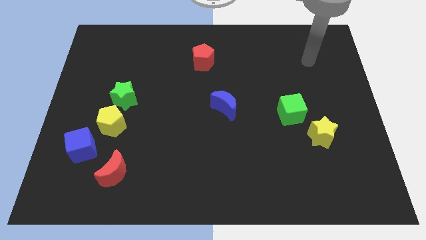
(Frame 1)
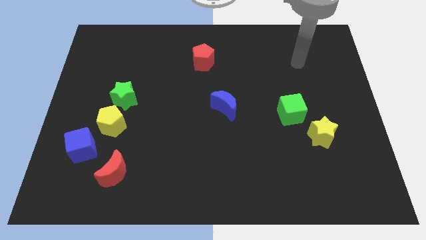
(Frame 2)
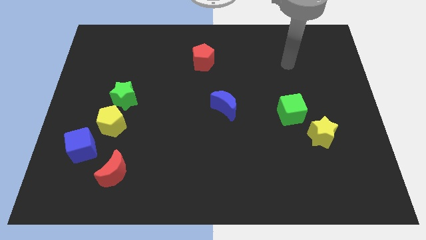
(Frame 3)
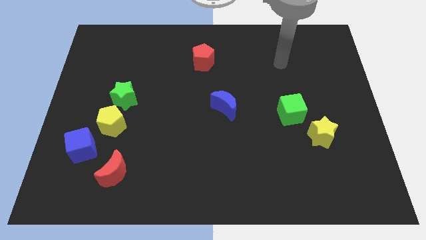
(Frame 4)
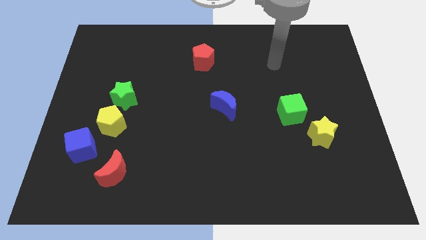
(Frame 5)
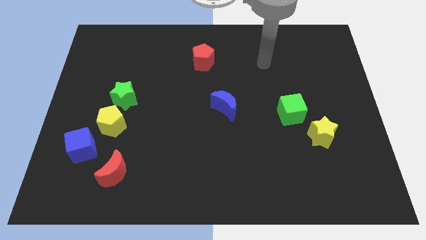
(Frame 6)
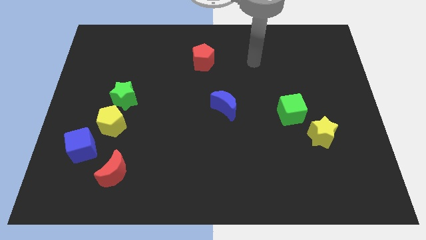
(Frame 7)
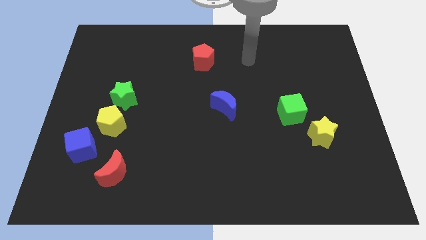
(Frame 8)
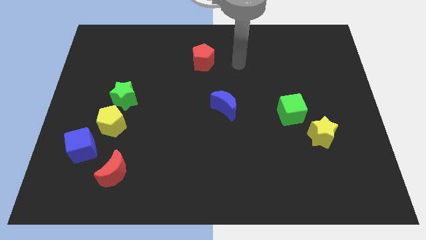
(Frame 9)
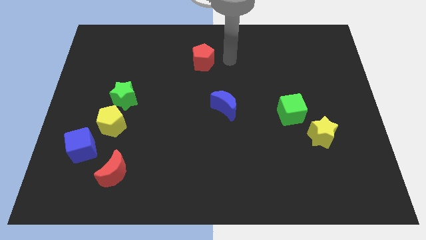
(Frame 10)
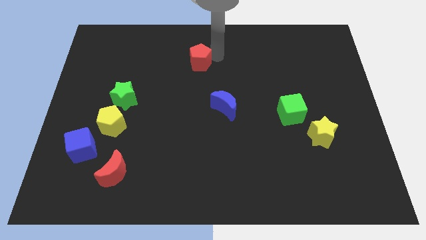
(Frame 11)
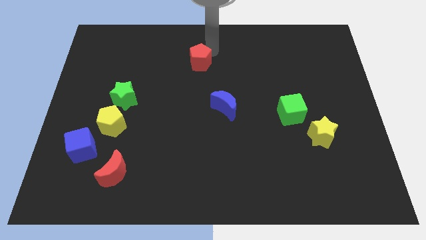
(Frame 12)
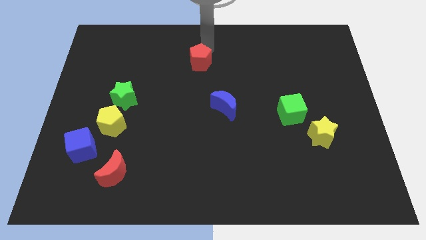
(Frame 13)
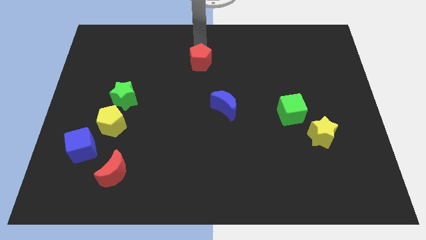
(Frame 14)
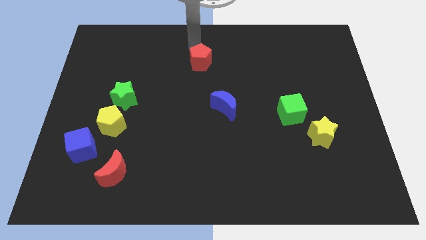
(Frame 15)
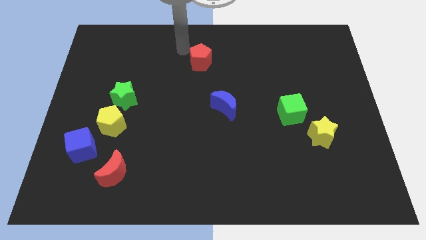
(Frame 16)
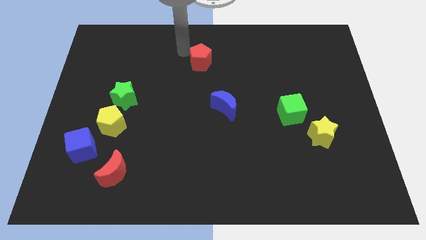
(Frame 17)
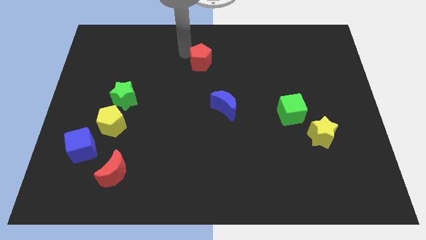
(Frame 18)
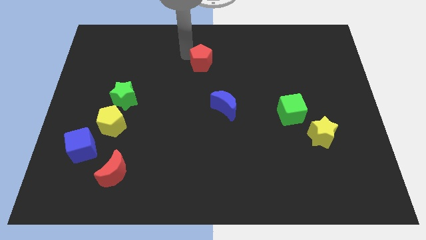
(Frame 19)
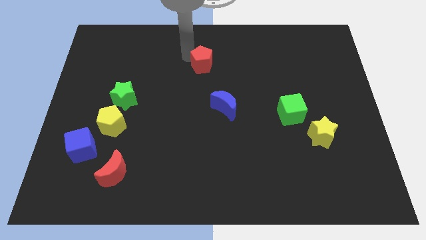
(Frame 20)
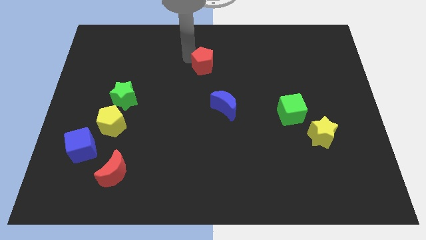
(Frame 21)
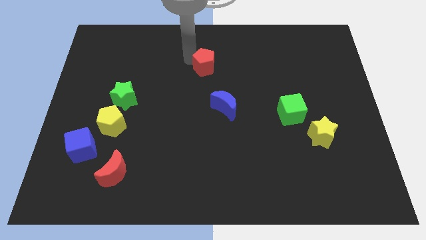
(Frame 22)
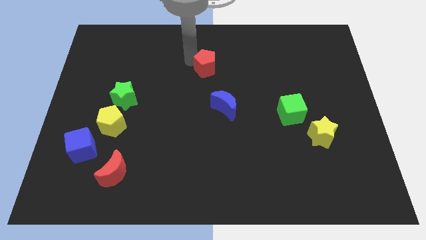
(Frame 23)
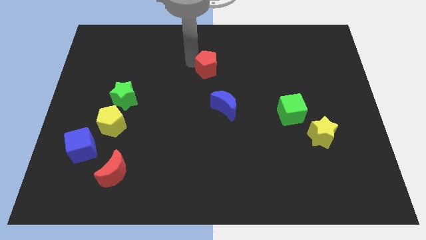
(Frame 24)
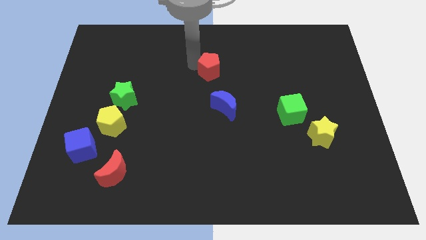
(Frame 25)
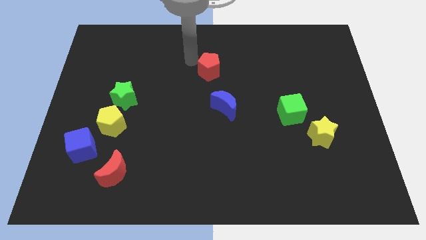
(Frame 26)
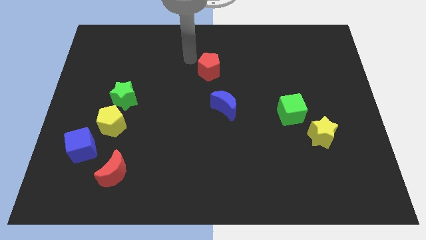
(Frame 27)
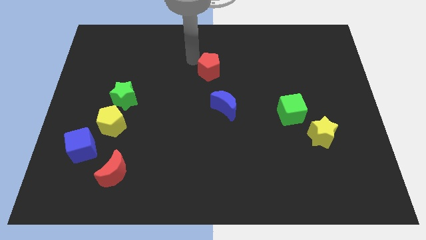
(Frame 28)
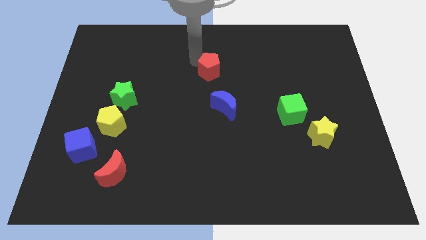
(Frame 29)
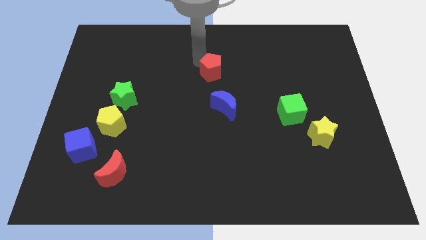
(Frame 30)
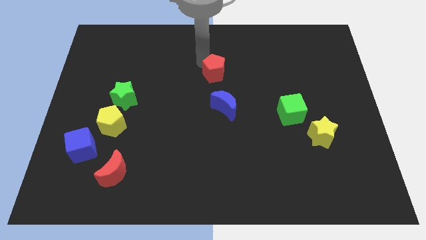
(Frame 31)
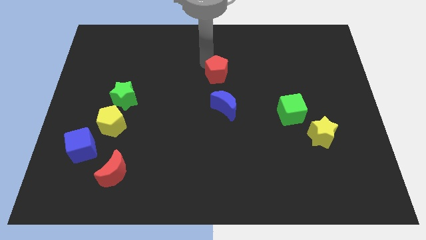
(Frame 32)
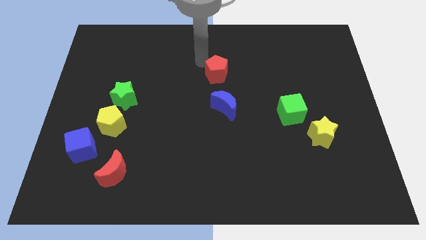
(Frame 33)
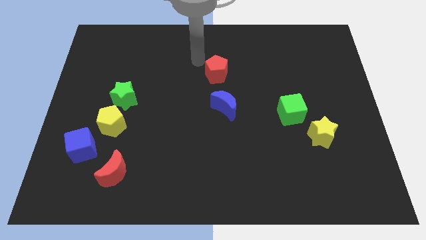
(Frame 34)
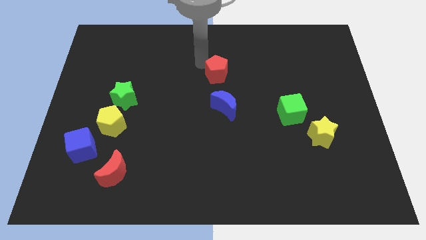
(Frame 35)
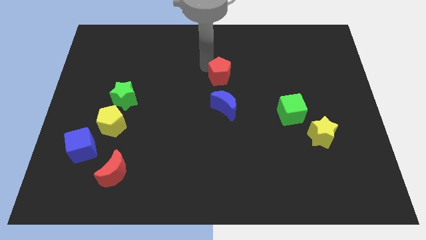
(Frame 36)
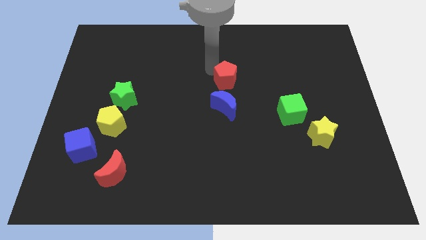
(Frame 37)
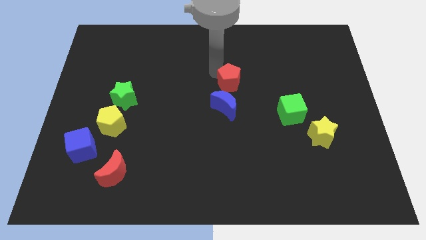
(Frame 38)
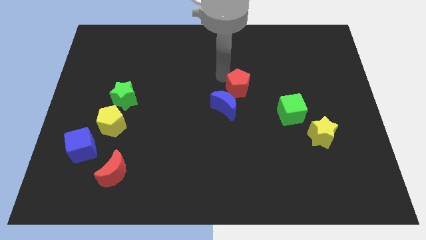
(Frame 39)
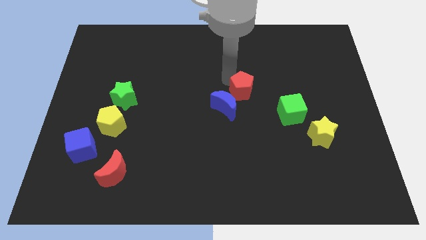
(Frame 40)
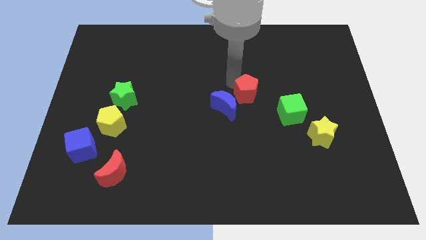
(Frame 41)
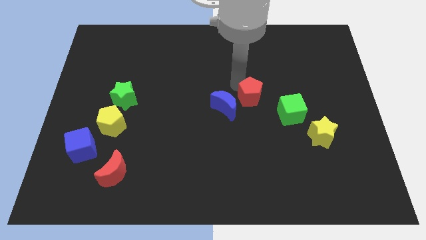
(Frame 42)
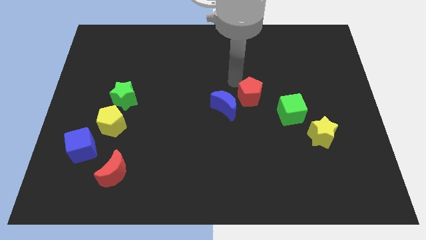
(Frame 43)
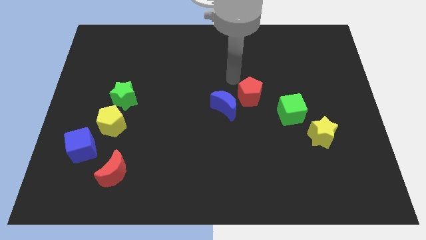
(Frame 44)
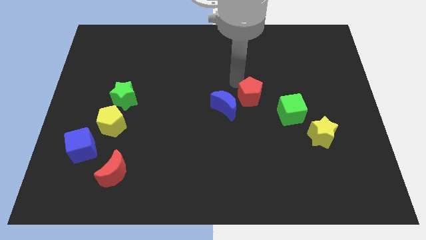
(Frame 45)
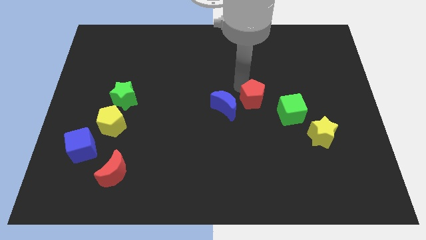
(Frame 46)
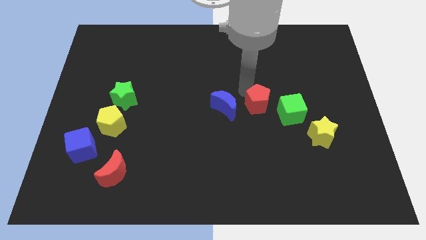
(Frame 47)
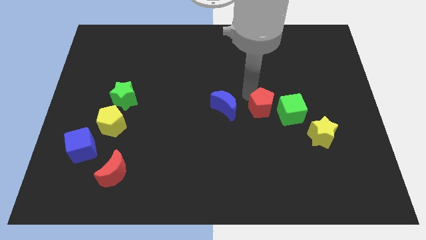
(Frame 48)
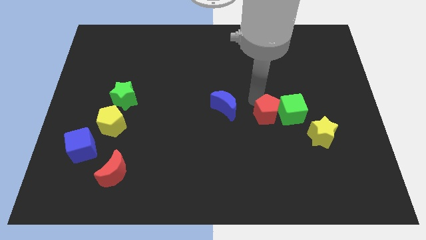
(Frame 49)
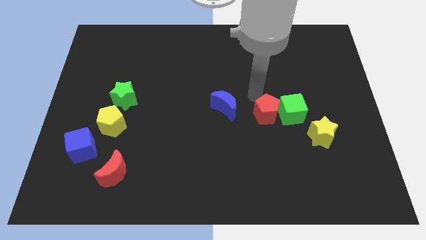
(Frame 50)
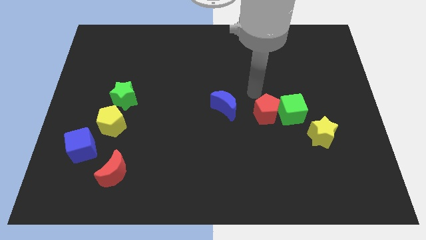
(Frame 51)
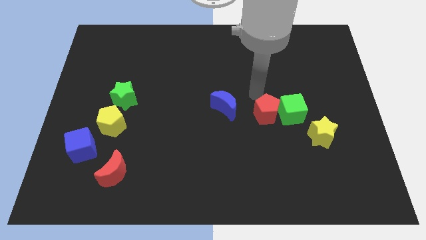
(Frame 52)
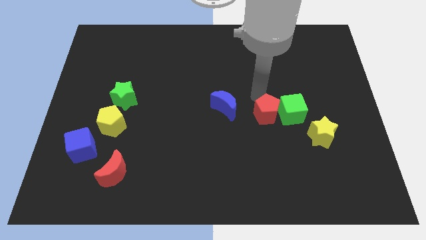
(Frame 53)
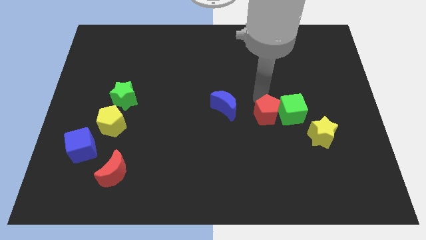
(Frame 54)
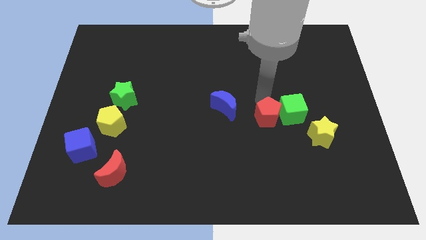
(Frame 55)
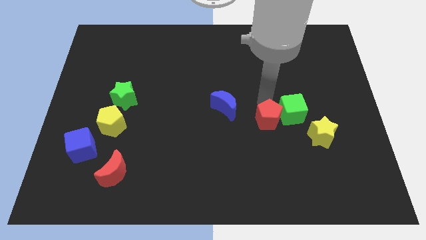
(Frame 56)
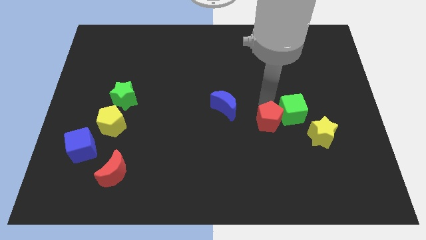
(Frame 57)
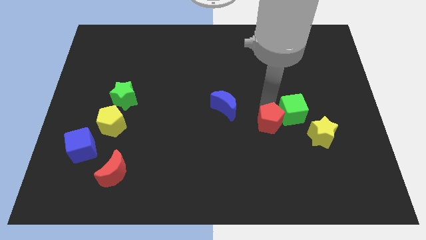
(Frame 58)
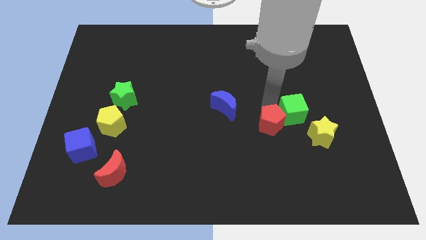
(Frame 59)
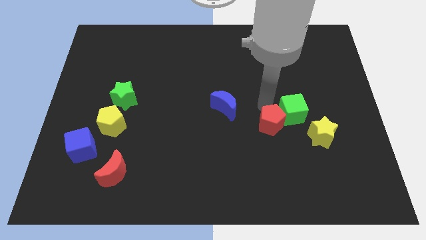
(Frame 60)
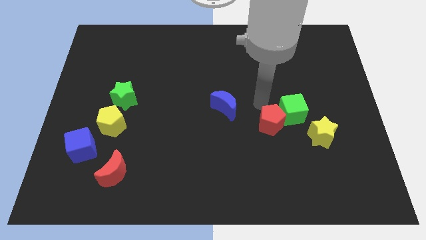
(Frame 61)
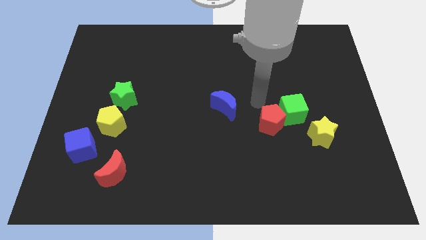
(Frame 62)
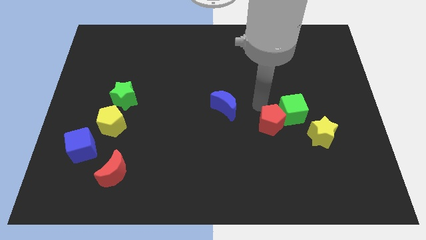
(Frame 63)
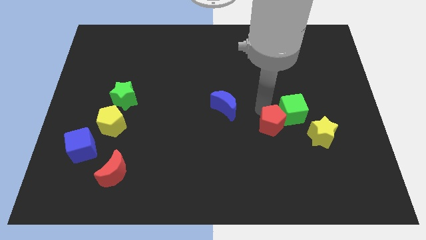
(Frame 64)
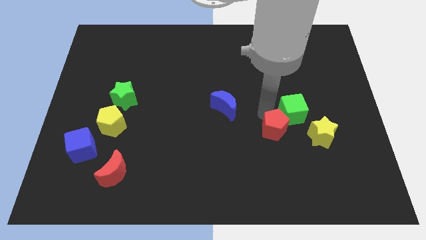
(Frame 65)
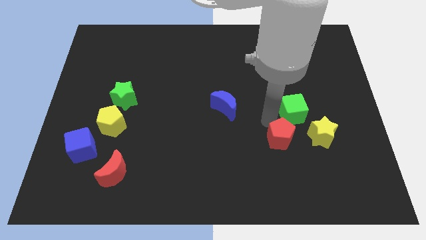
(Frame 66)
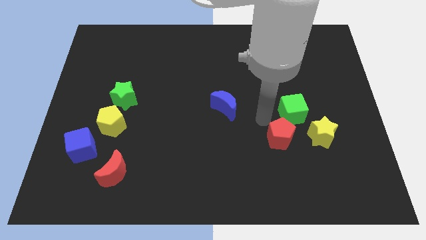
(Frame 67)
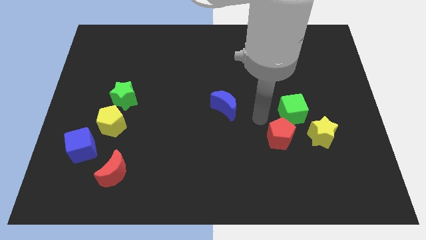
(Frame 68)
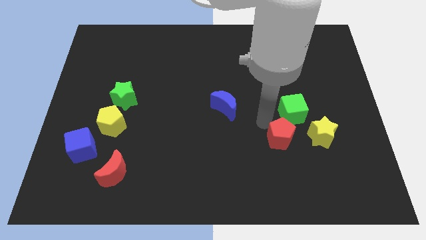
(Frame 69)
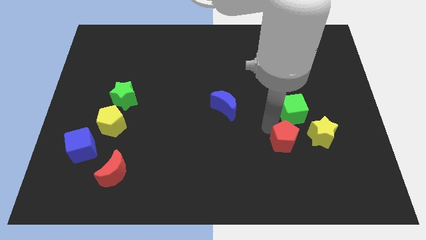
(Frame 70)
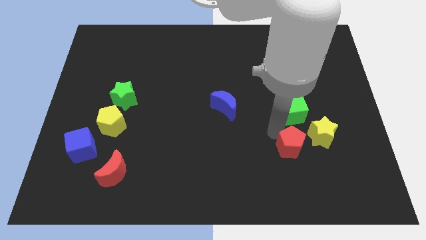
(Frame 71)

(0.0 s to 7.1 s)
slide the red pentagon diagonally down and to the left of the yellow star

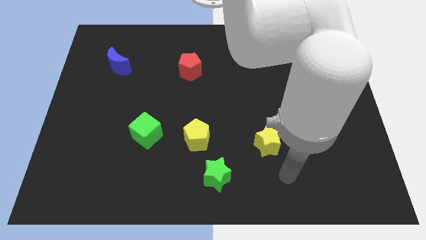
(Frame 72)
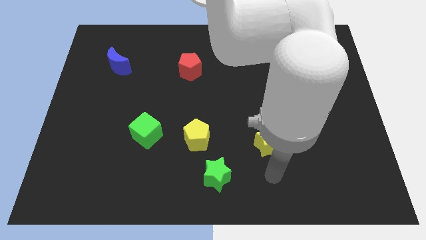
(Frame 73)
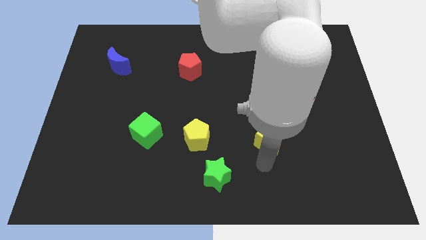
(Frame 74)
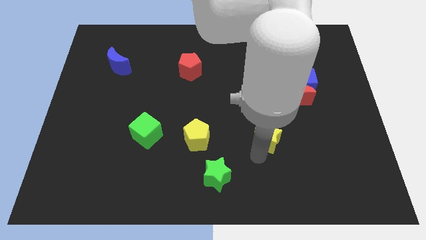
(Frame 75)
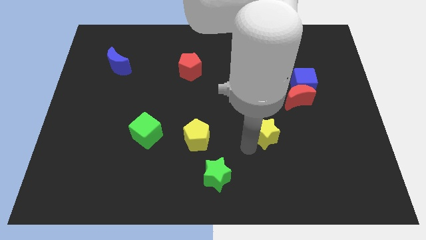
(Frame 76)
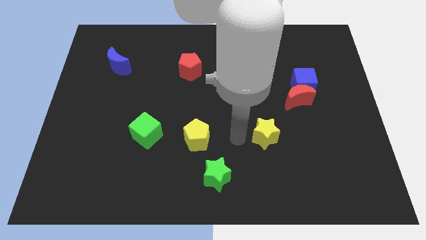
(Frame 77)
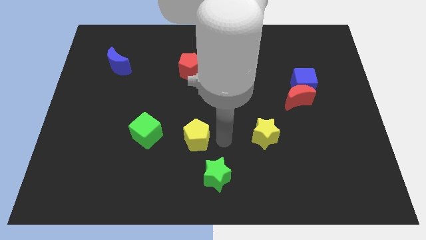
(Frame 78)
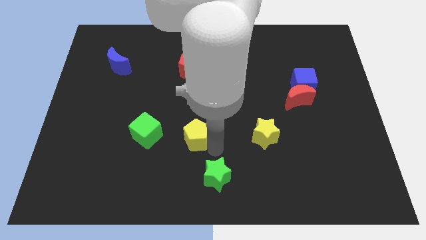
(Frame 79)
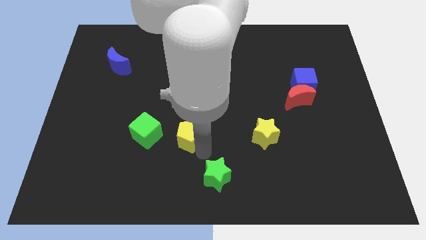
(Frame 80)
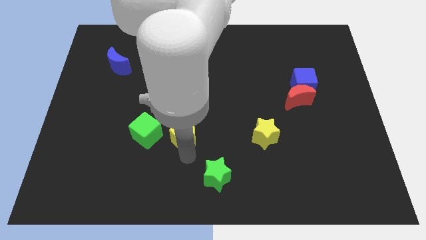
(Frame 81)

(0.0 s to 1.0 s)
slide the green cube to the top left of the yellow pentagon
